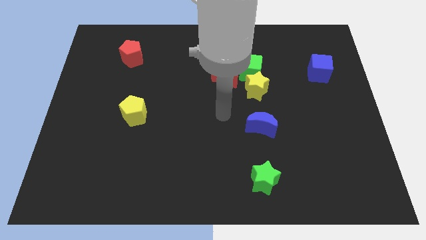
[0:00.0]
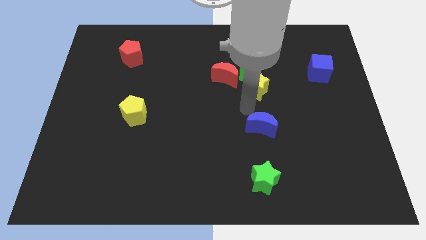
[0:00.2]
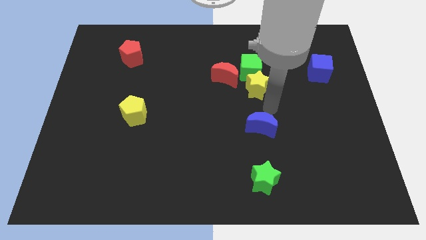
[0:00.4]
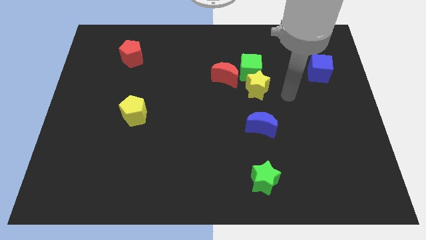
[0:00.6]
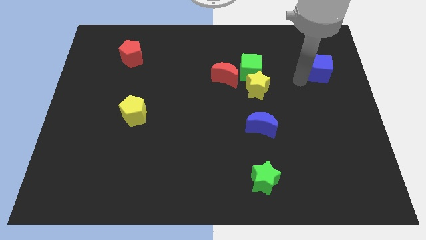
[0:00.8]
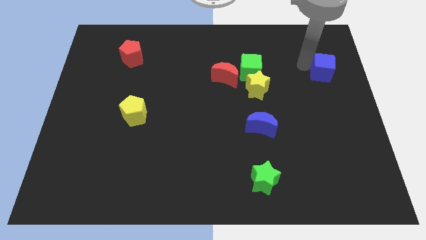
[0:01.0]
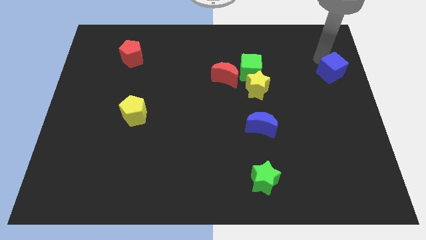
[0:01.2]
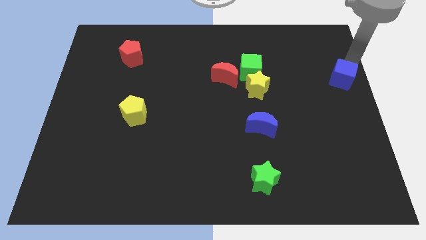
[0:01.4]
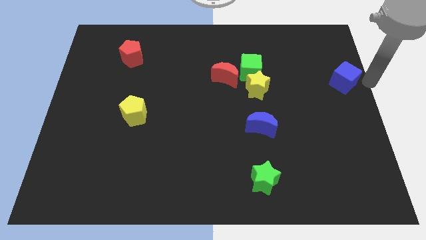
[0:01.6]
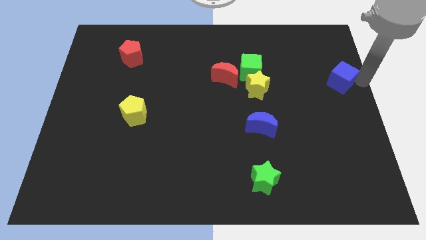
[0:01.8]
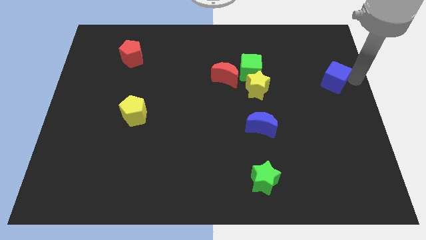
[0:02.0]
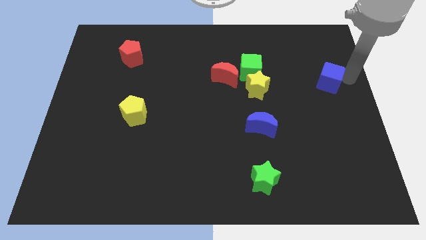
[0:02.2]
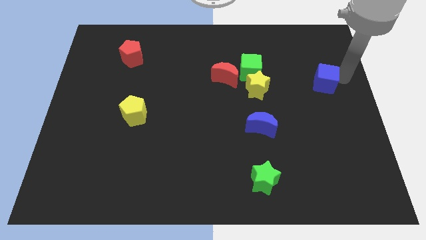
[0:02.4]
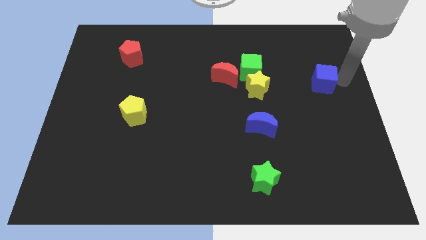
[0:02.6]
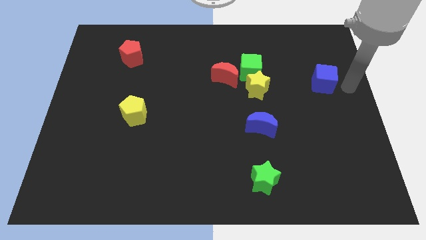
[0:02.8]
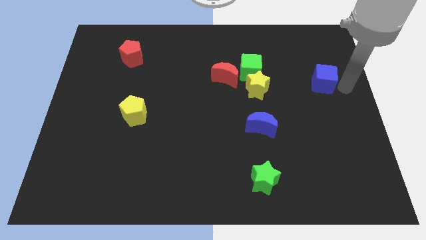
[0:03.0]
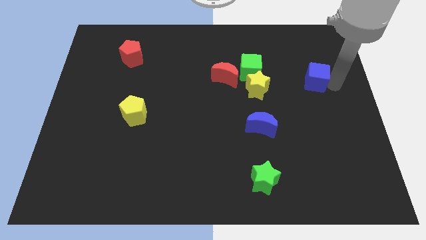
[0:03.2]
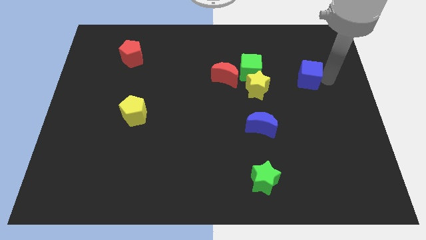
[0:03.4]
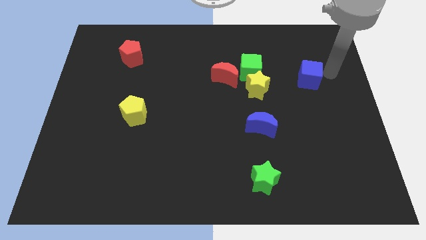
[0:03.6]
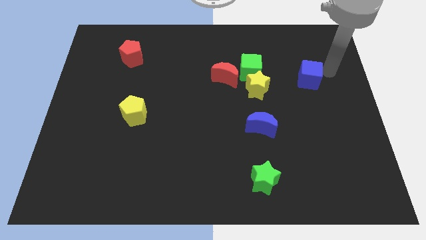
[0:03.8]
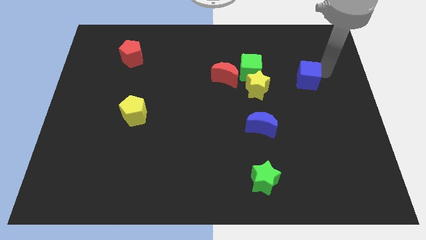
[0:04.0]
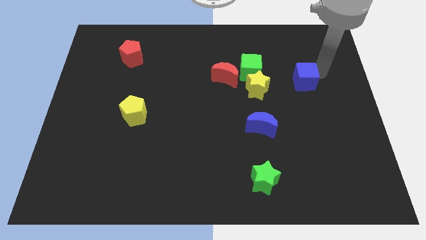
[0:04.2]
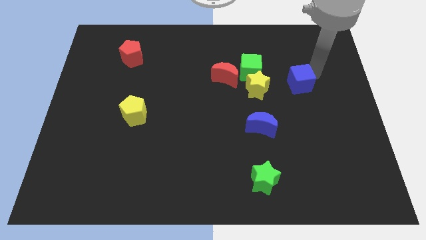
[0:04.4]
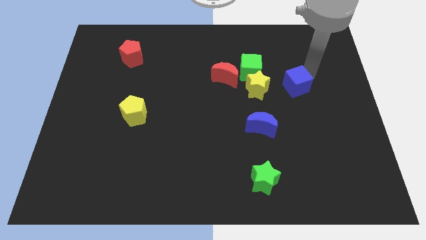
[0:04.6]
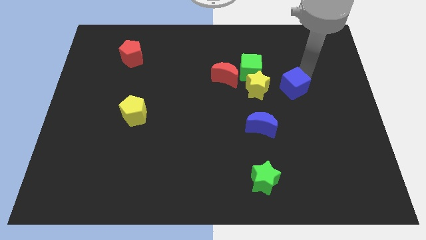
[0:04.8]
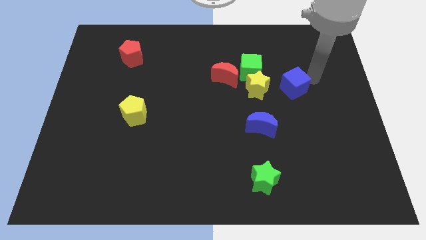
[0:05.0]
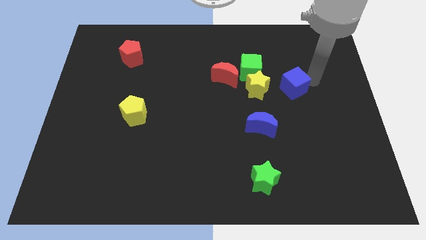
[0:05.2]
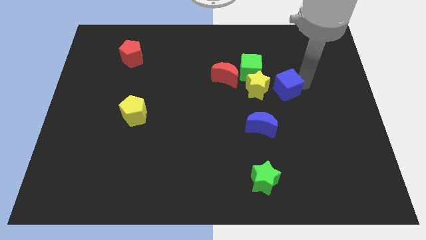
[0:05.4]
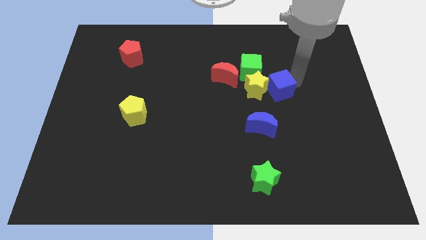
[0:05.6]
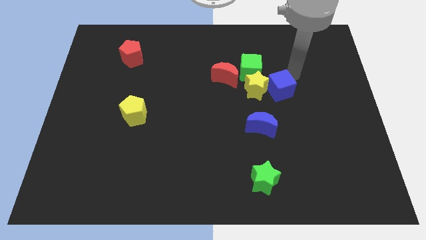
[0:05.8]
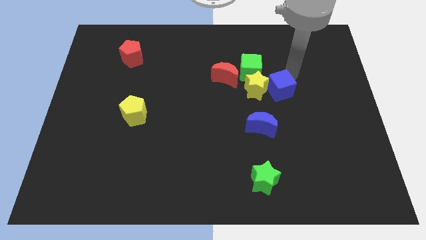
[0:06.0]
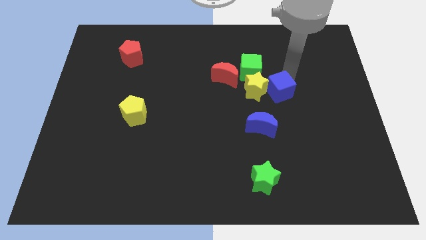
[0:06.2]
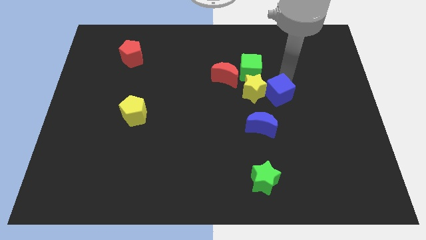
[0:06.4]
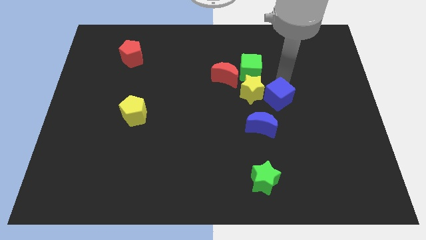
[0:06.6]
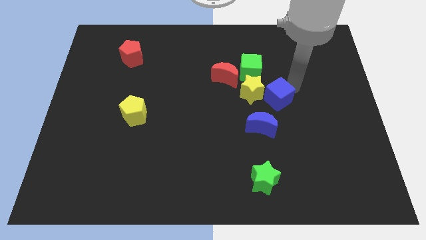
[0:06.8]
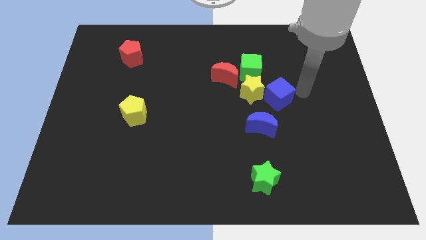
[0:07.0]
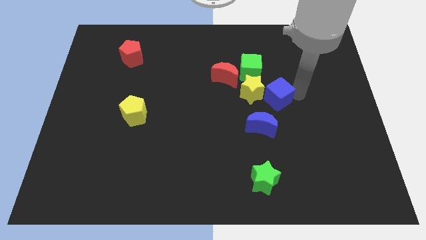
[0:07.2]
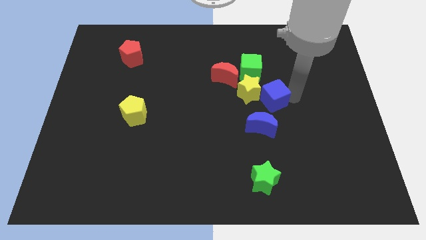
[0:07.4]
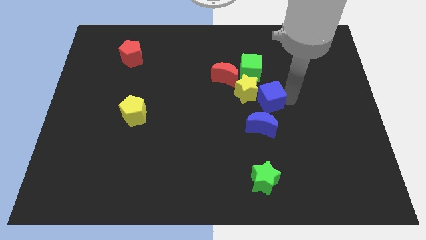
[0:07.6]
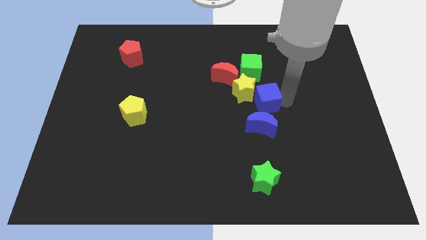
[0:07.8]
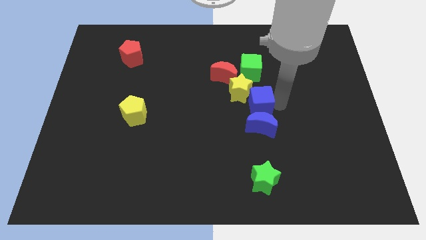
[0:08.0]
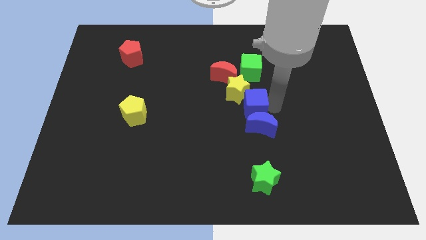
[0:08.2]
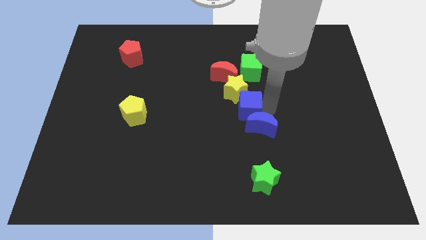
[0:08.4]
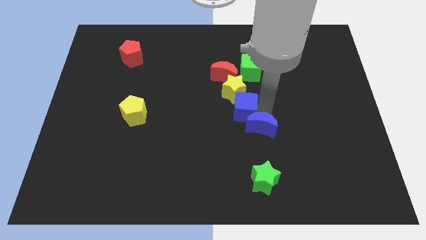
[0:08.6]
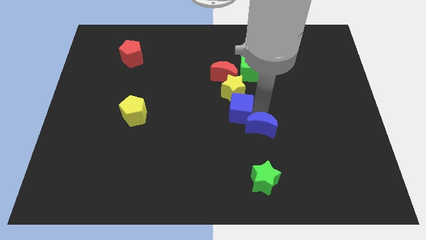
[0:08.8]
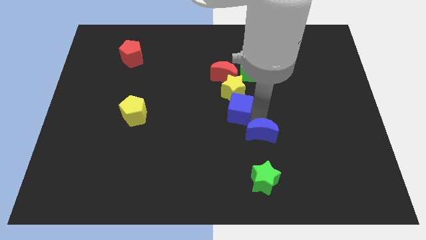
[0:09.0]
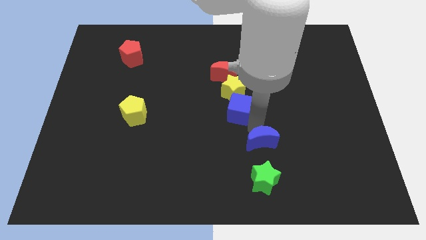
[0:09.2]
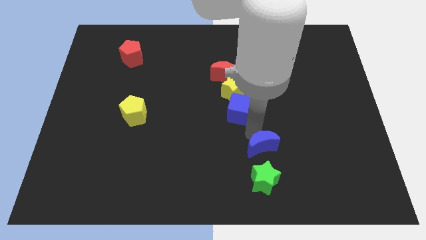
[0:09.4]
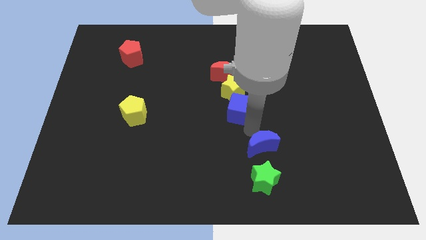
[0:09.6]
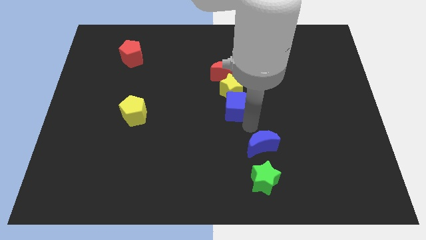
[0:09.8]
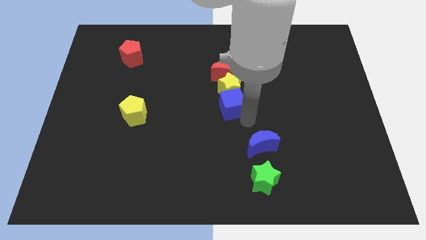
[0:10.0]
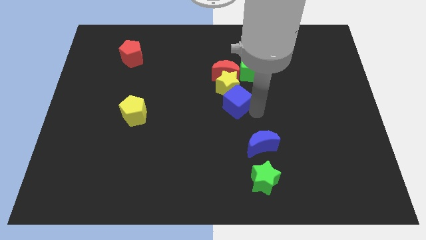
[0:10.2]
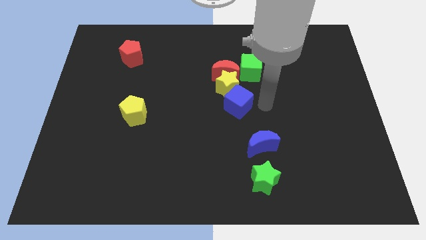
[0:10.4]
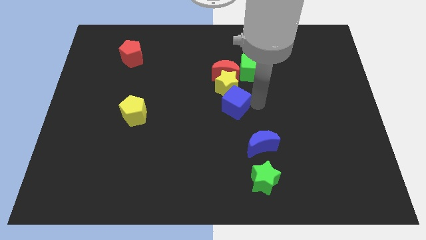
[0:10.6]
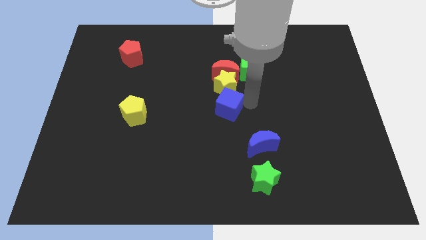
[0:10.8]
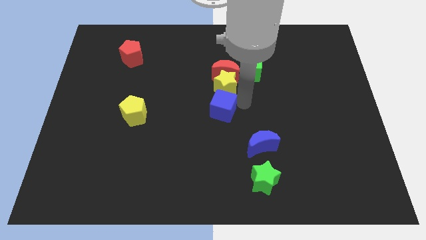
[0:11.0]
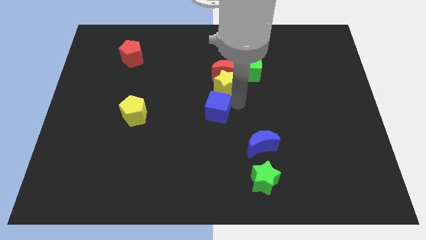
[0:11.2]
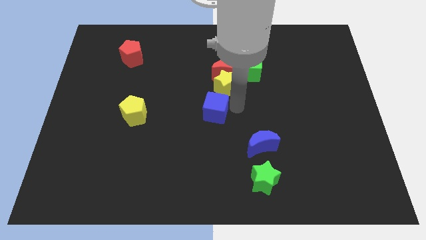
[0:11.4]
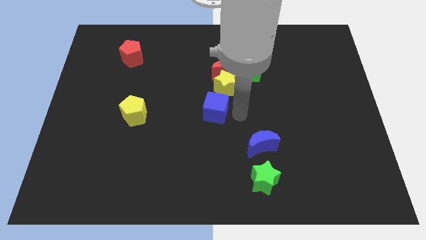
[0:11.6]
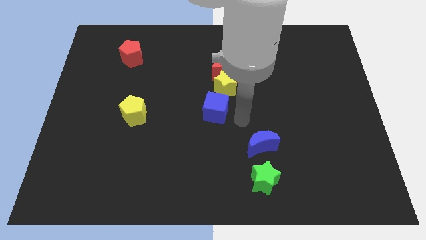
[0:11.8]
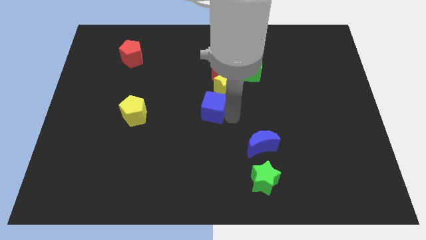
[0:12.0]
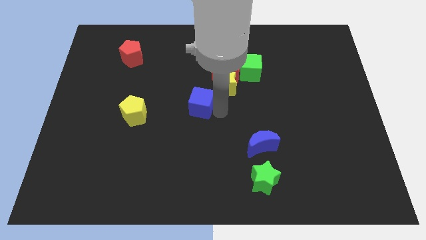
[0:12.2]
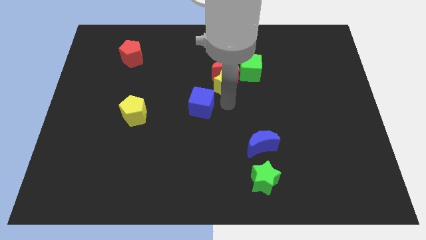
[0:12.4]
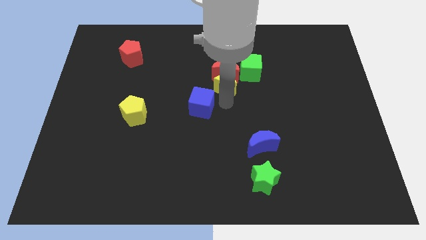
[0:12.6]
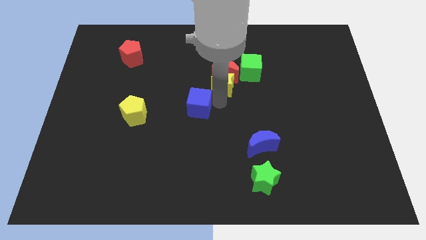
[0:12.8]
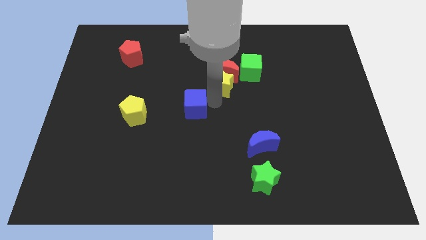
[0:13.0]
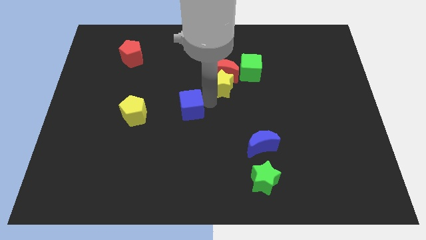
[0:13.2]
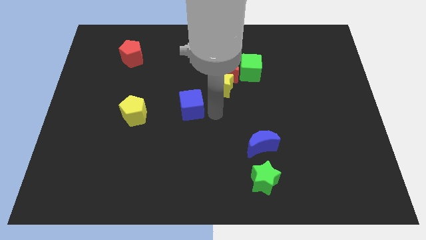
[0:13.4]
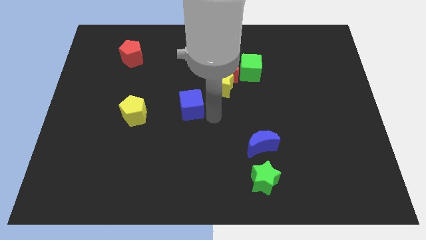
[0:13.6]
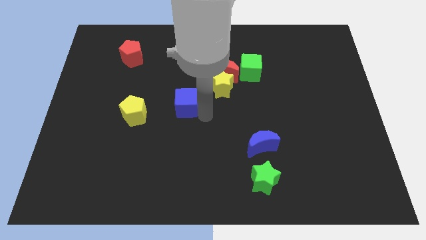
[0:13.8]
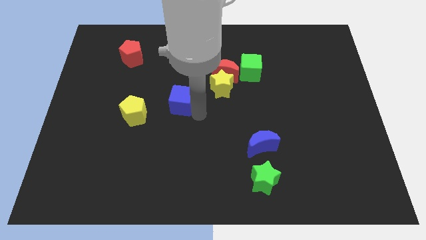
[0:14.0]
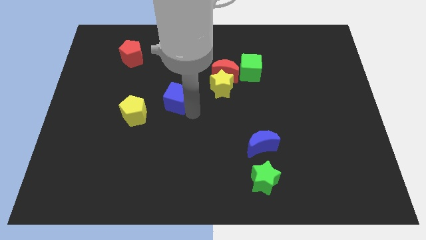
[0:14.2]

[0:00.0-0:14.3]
slide the blue cube to the top right side of the yellow pentagon
